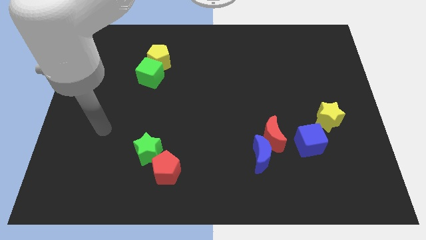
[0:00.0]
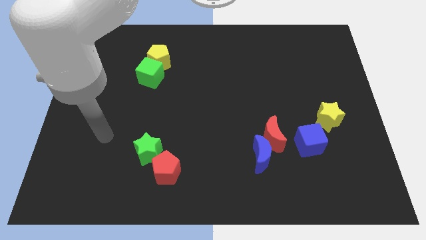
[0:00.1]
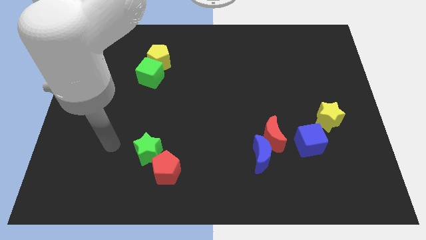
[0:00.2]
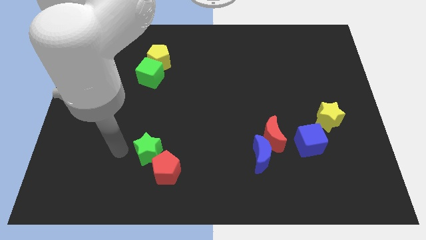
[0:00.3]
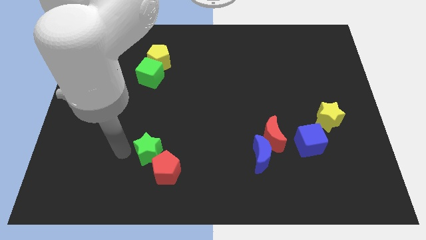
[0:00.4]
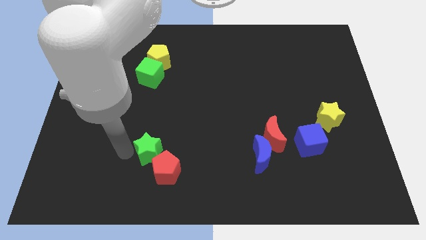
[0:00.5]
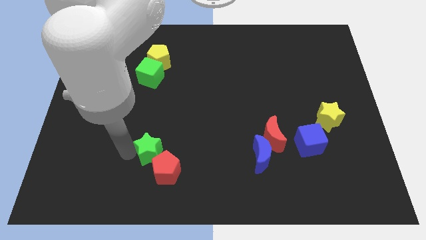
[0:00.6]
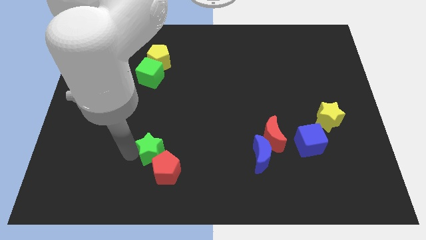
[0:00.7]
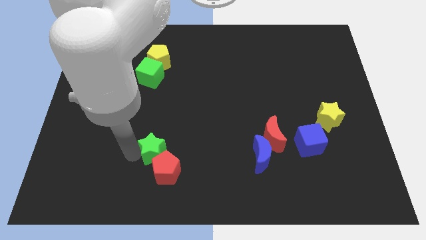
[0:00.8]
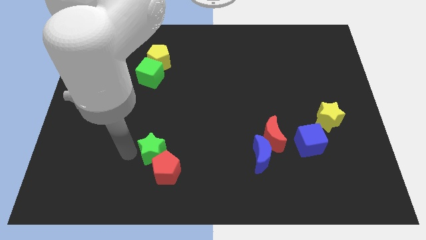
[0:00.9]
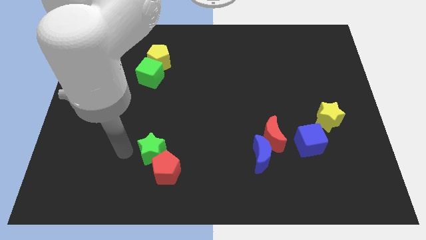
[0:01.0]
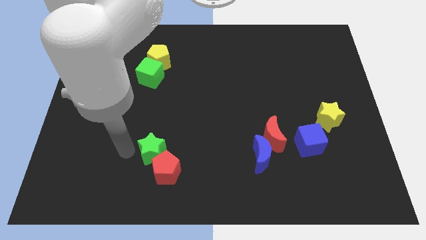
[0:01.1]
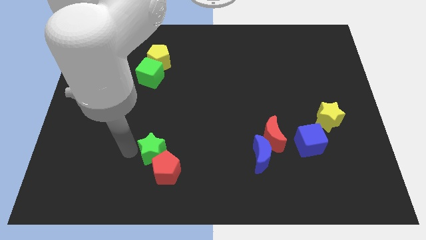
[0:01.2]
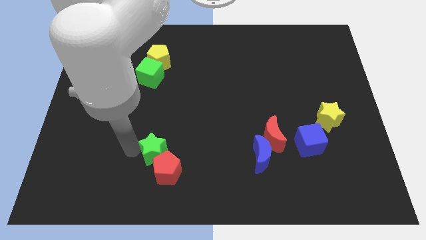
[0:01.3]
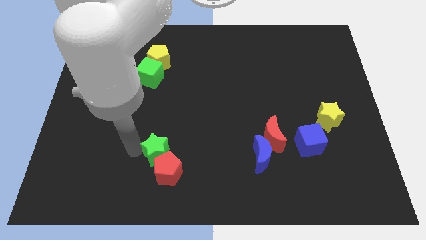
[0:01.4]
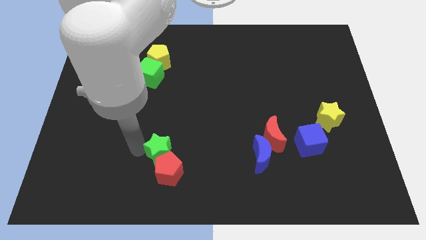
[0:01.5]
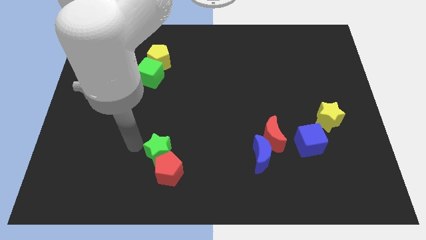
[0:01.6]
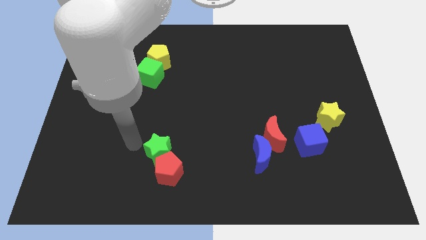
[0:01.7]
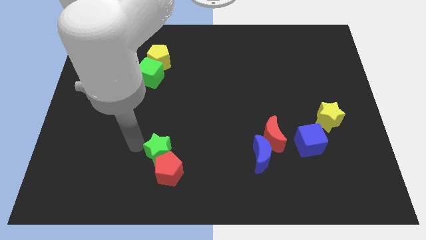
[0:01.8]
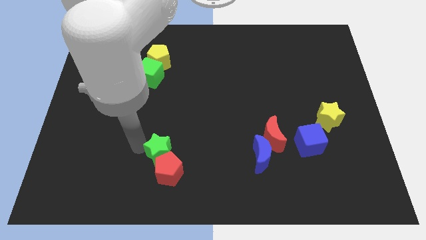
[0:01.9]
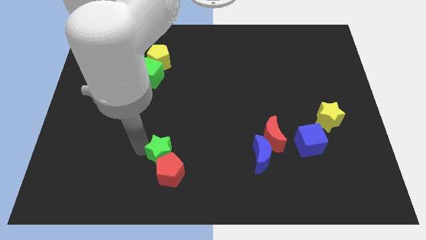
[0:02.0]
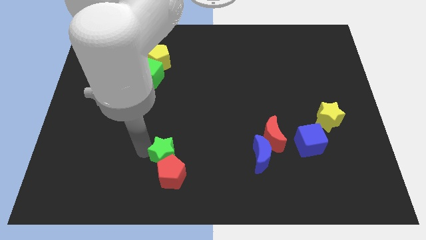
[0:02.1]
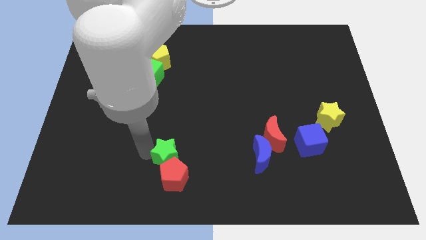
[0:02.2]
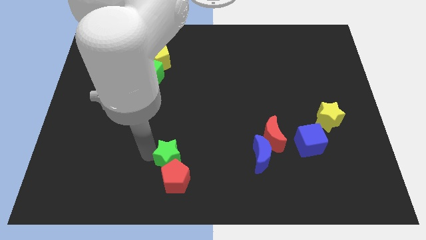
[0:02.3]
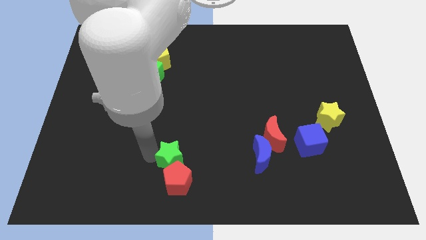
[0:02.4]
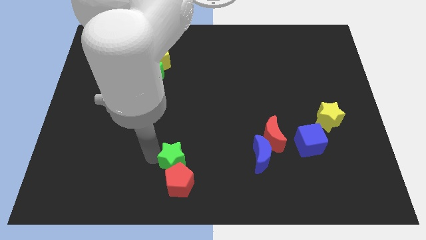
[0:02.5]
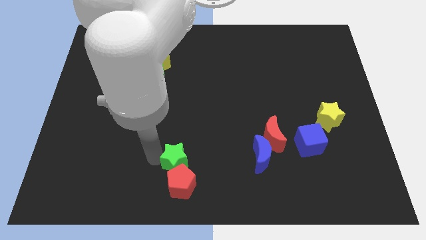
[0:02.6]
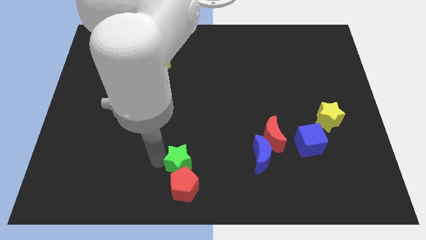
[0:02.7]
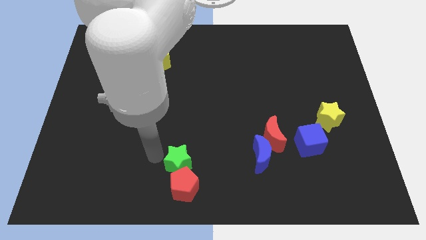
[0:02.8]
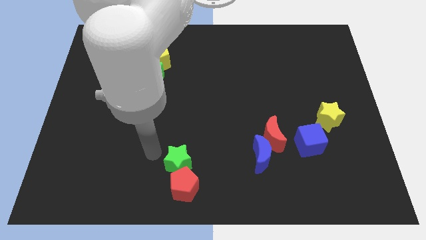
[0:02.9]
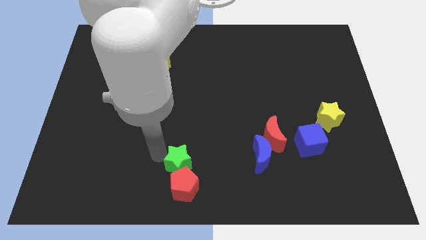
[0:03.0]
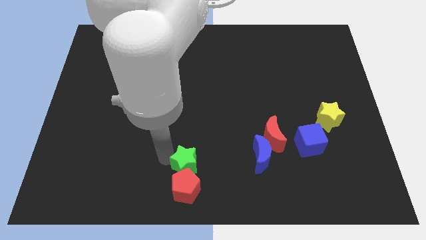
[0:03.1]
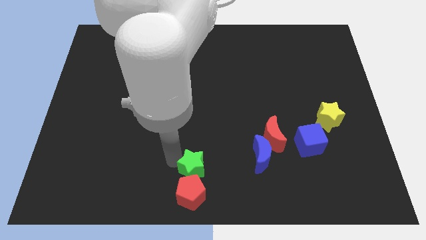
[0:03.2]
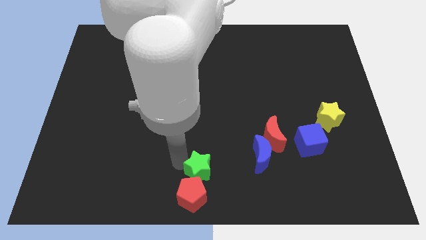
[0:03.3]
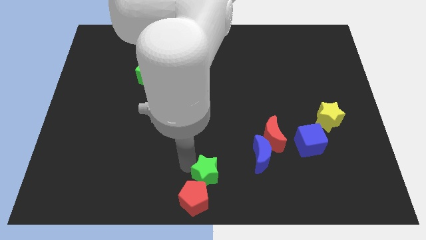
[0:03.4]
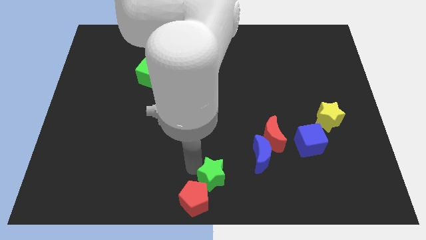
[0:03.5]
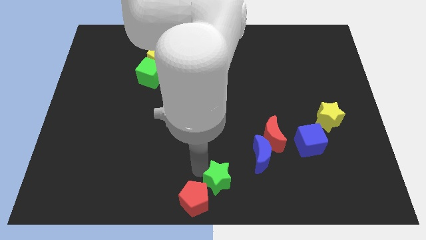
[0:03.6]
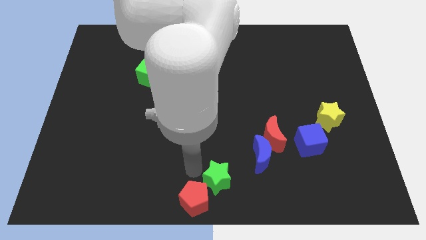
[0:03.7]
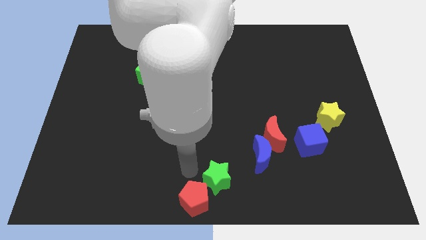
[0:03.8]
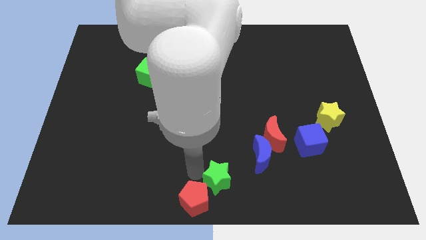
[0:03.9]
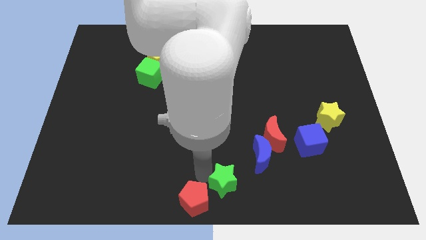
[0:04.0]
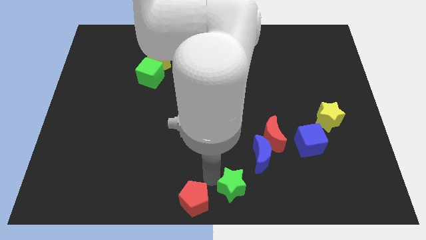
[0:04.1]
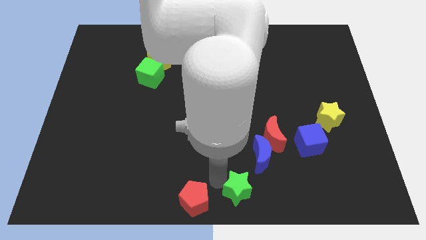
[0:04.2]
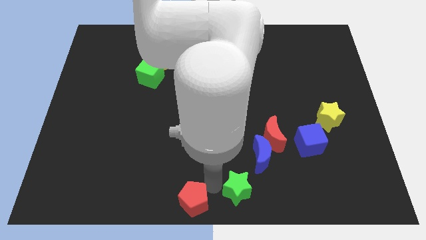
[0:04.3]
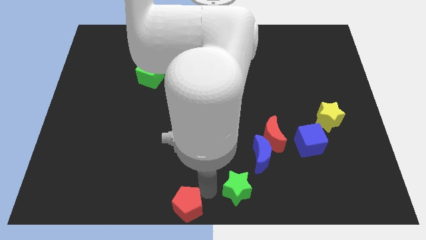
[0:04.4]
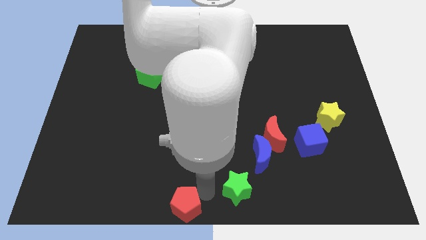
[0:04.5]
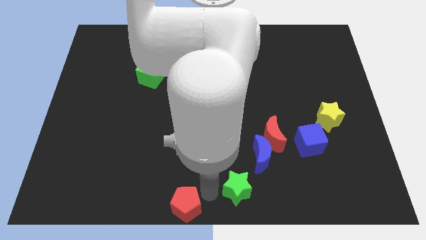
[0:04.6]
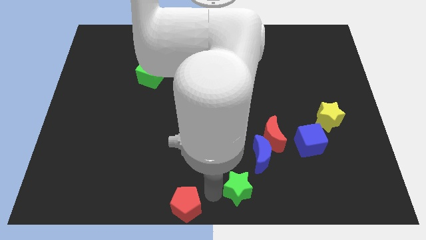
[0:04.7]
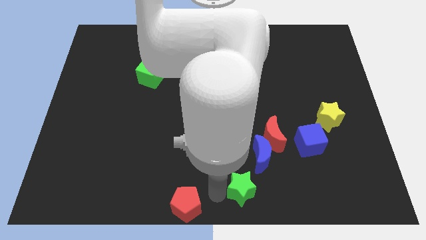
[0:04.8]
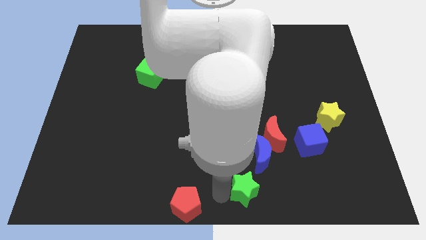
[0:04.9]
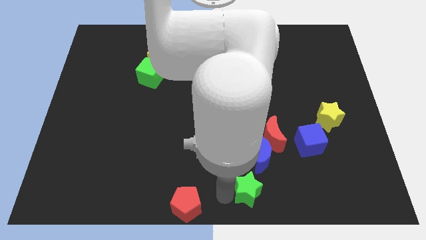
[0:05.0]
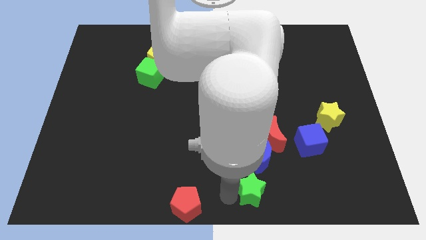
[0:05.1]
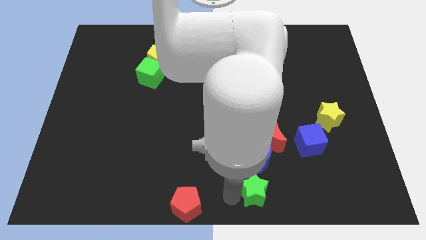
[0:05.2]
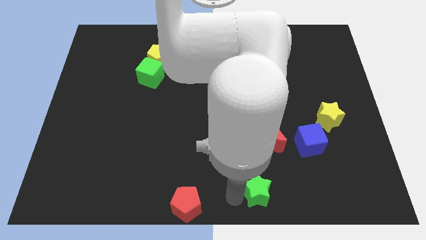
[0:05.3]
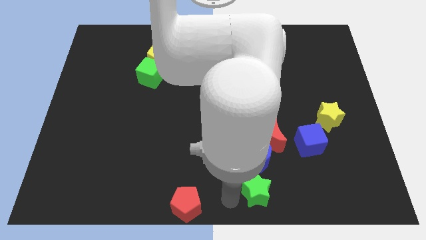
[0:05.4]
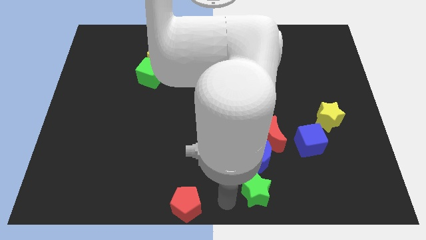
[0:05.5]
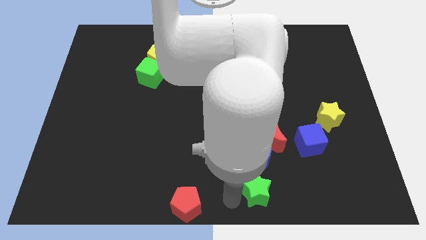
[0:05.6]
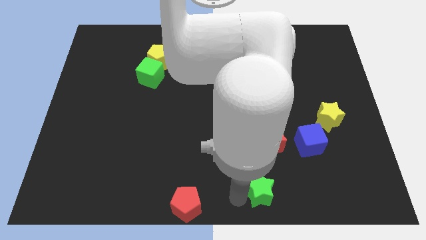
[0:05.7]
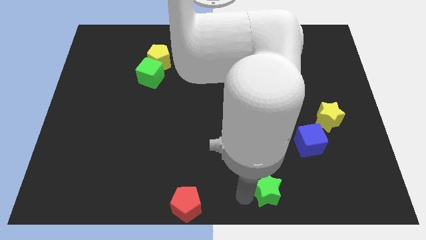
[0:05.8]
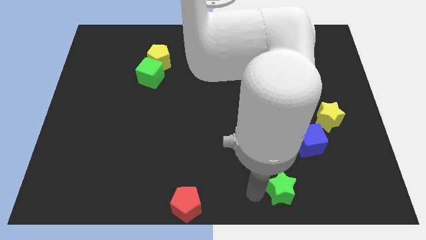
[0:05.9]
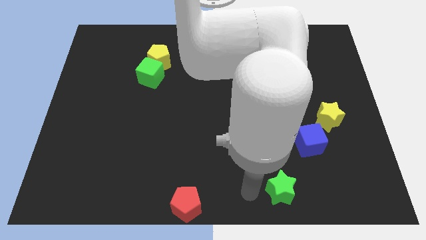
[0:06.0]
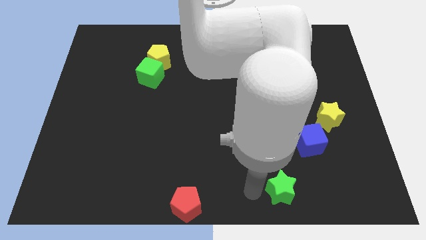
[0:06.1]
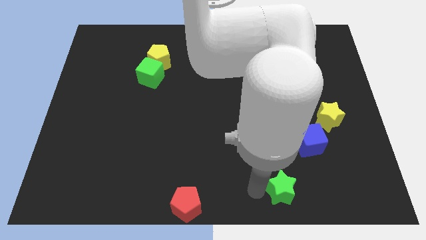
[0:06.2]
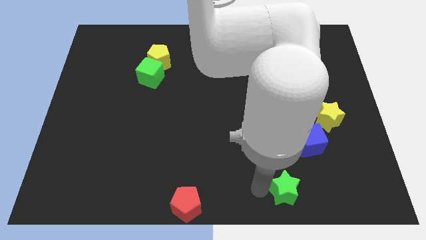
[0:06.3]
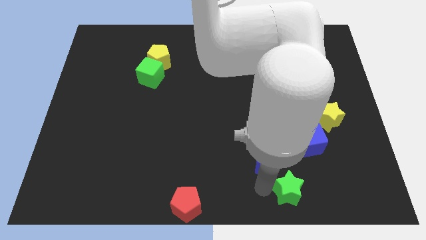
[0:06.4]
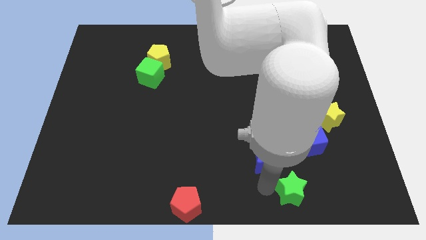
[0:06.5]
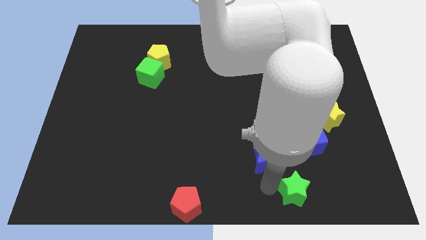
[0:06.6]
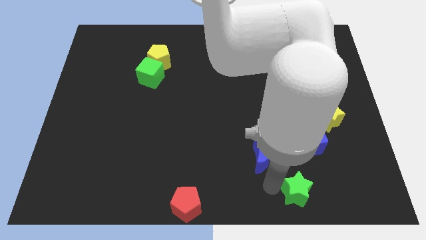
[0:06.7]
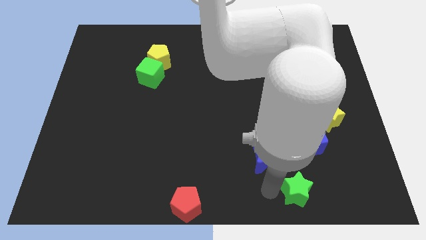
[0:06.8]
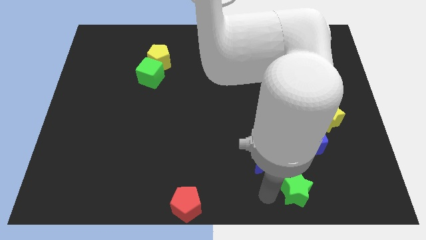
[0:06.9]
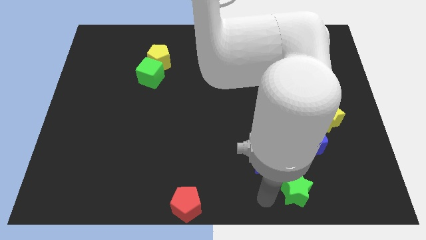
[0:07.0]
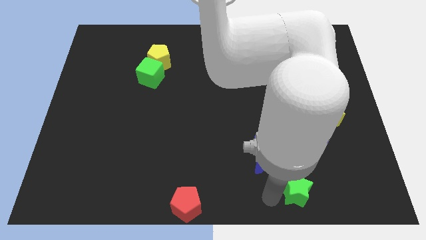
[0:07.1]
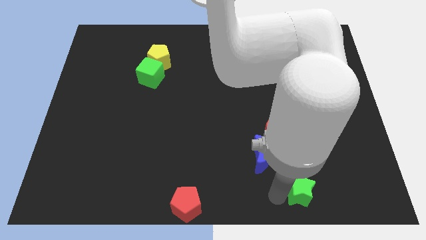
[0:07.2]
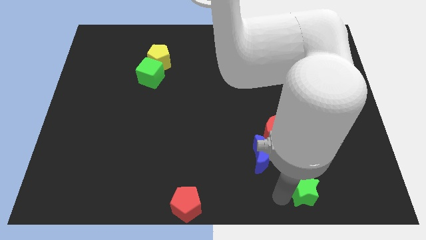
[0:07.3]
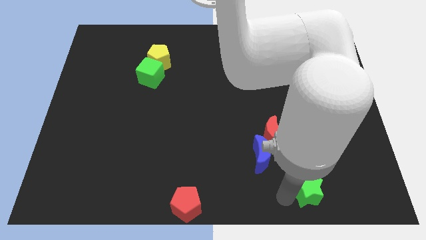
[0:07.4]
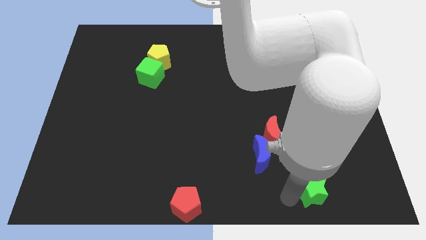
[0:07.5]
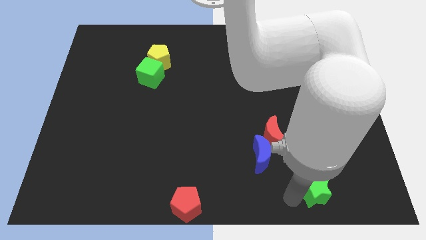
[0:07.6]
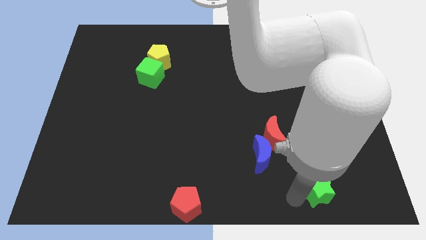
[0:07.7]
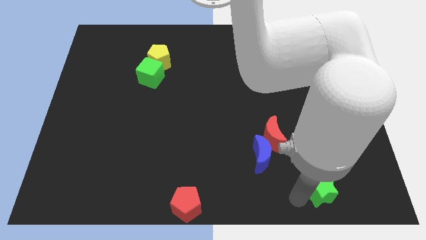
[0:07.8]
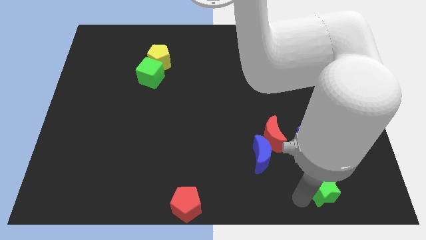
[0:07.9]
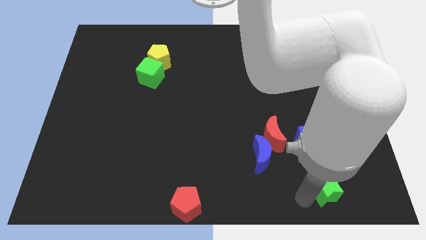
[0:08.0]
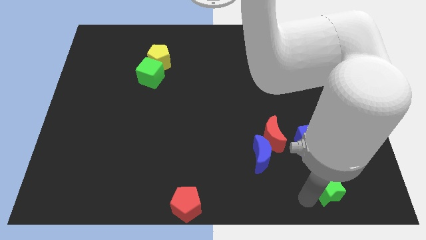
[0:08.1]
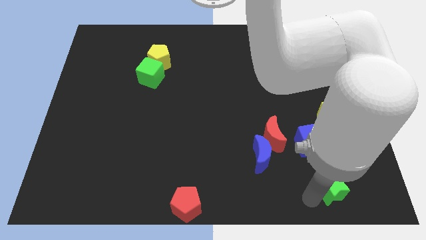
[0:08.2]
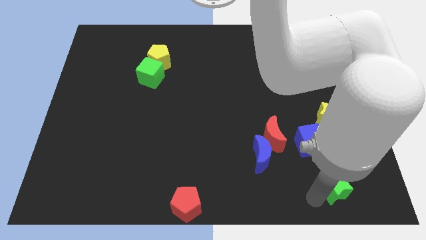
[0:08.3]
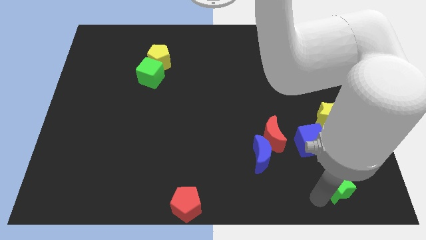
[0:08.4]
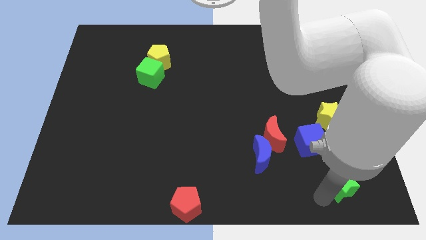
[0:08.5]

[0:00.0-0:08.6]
put the green star to the bottom side of the yellow star
